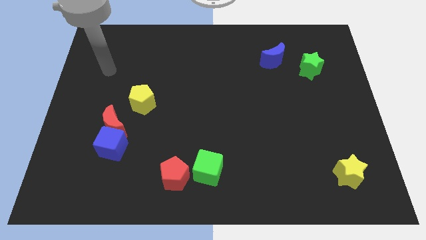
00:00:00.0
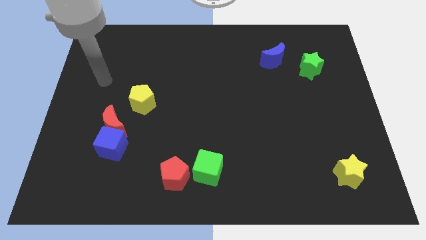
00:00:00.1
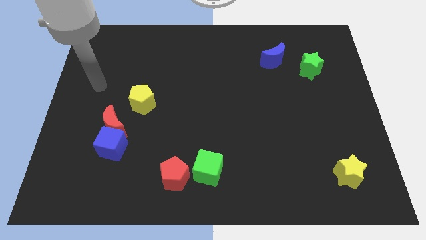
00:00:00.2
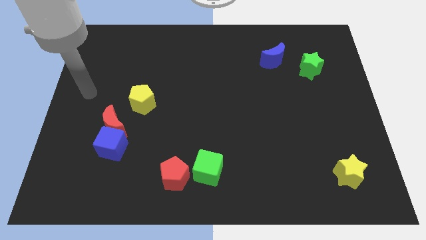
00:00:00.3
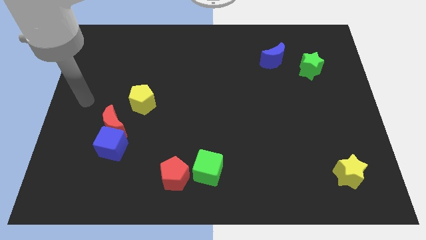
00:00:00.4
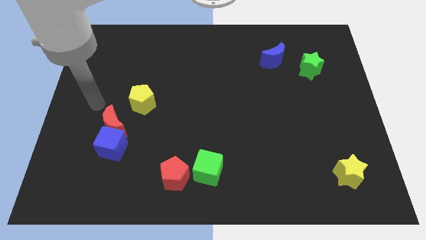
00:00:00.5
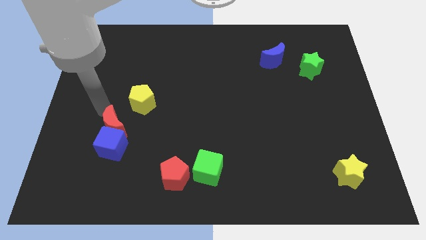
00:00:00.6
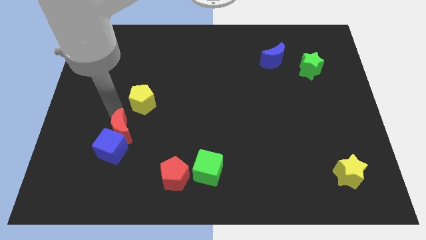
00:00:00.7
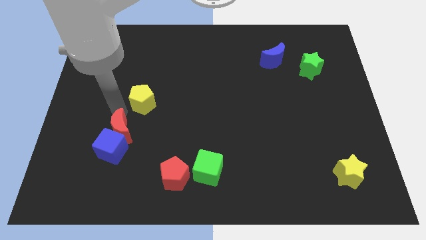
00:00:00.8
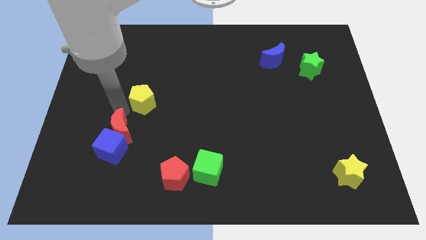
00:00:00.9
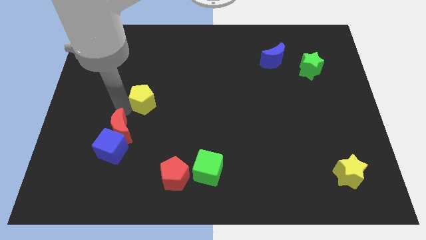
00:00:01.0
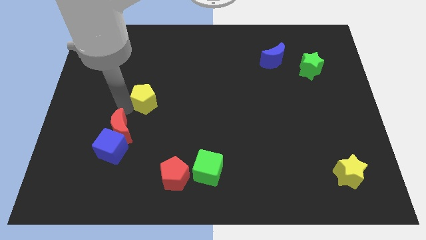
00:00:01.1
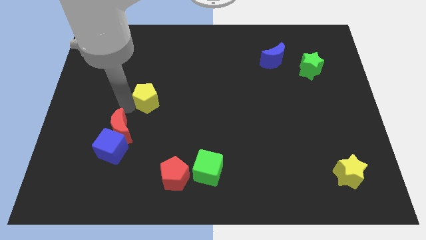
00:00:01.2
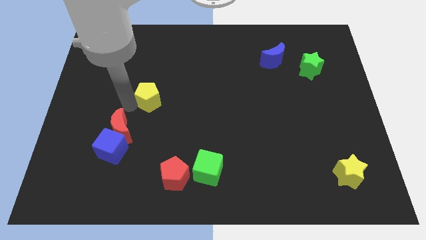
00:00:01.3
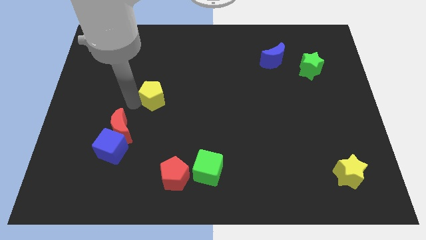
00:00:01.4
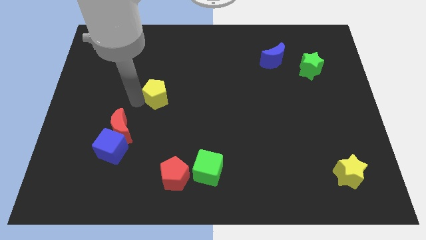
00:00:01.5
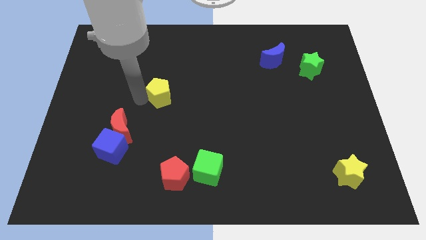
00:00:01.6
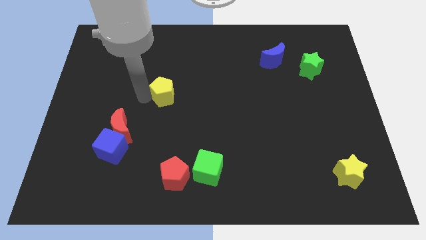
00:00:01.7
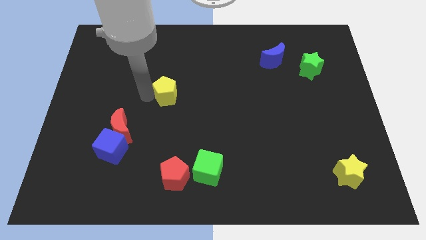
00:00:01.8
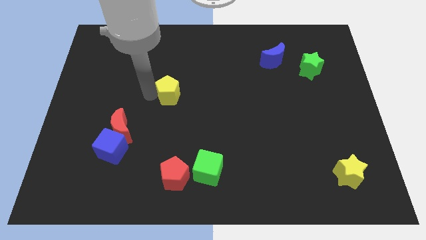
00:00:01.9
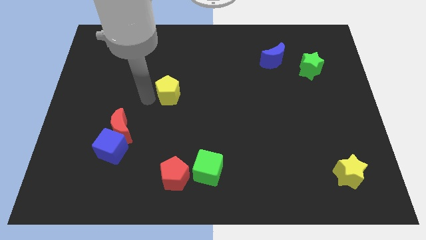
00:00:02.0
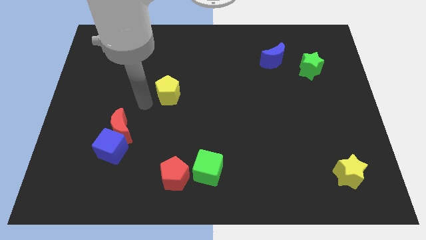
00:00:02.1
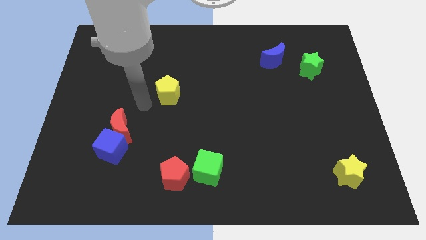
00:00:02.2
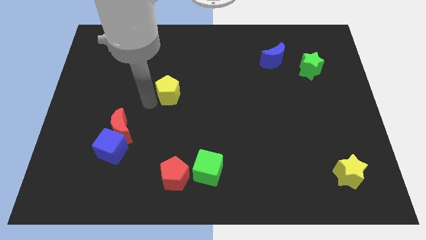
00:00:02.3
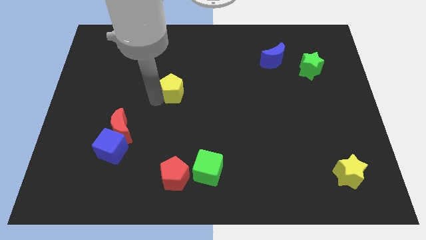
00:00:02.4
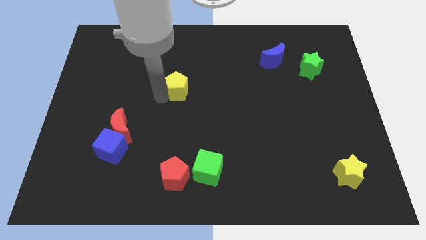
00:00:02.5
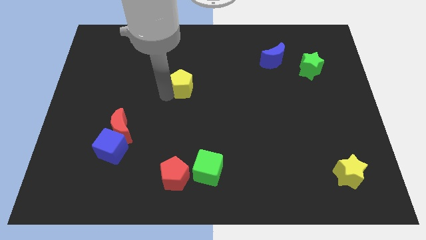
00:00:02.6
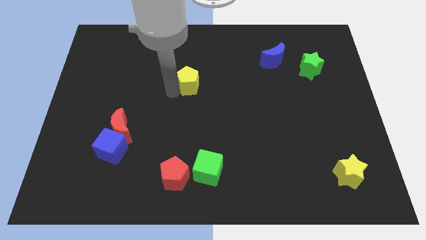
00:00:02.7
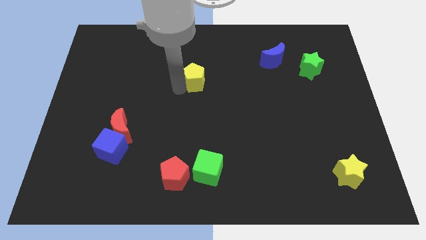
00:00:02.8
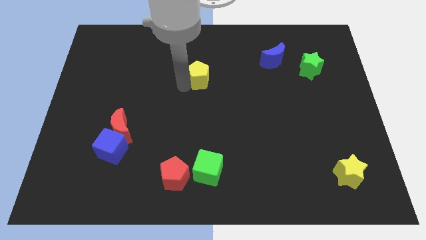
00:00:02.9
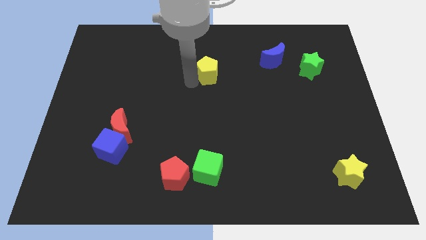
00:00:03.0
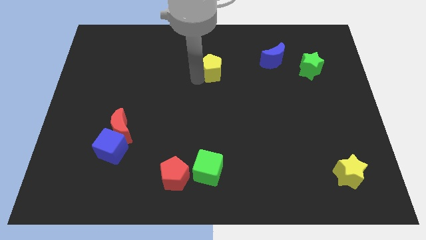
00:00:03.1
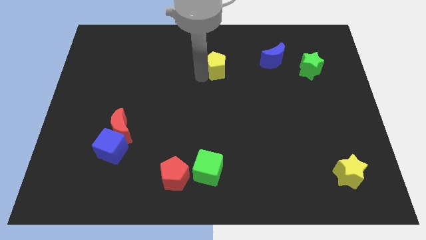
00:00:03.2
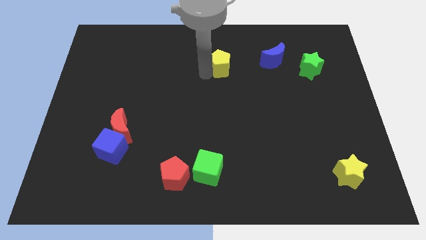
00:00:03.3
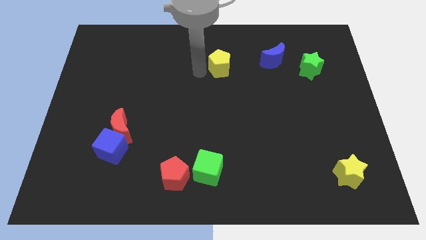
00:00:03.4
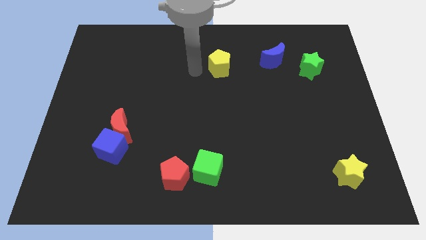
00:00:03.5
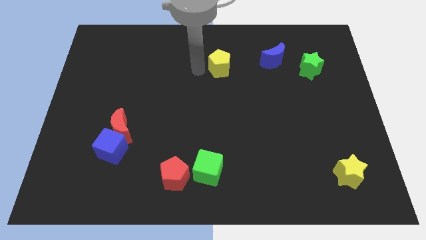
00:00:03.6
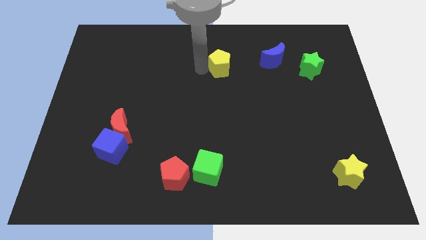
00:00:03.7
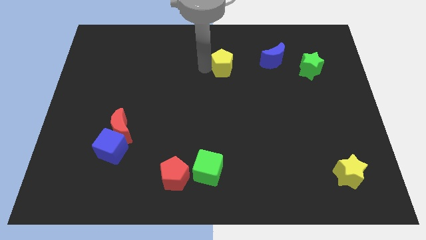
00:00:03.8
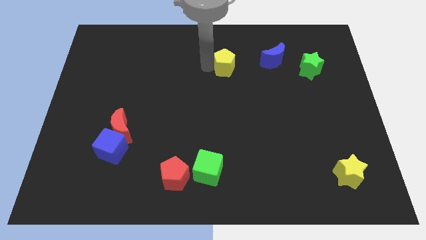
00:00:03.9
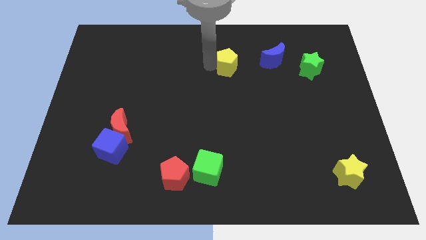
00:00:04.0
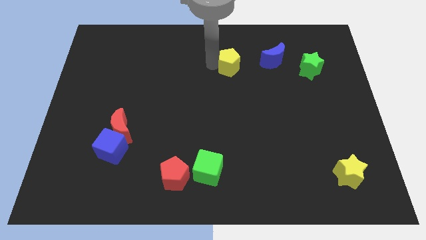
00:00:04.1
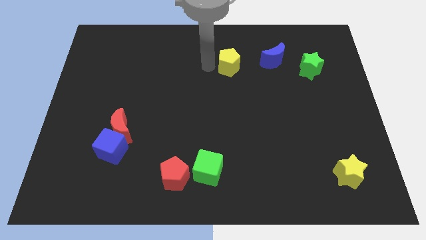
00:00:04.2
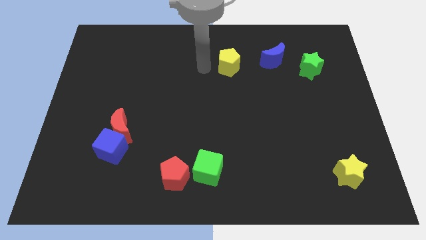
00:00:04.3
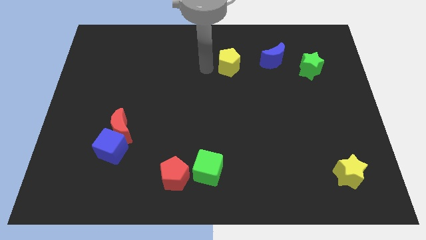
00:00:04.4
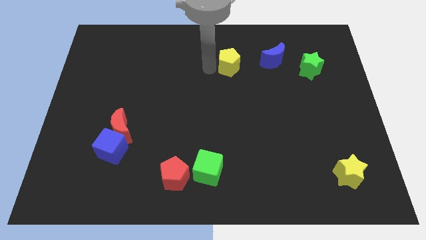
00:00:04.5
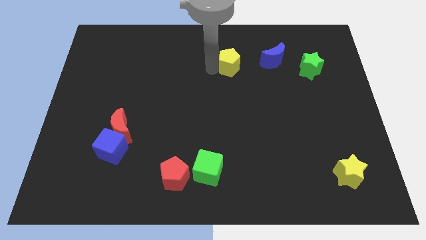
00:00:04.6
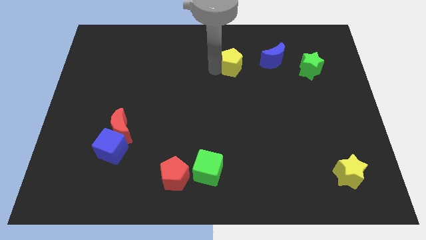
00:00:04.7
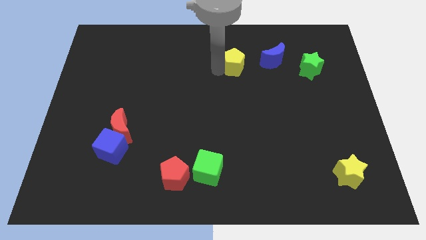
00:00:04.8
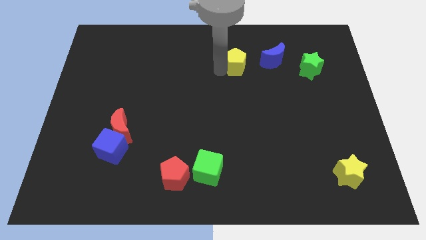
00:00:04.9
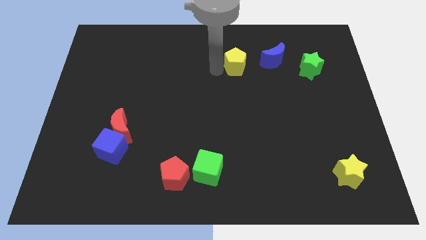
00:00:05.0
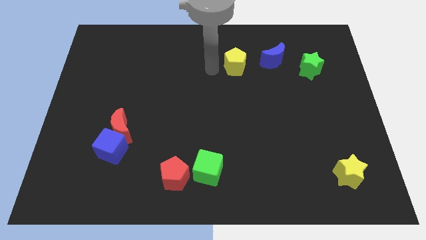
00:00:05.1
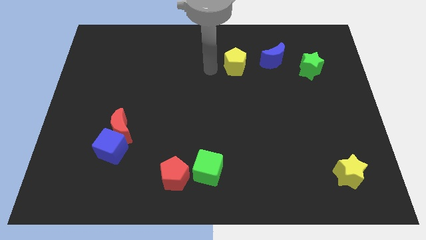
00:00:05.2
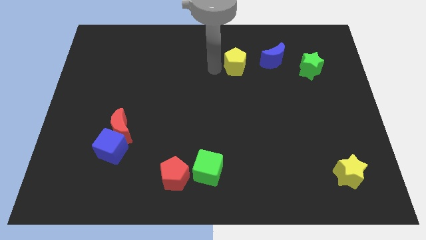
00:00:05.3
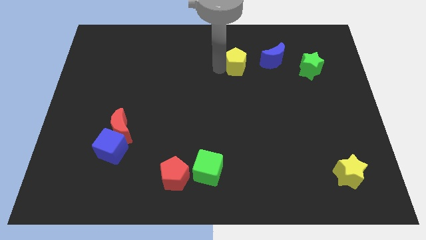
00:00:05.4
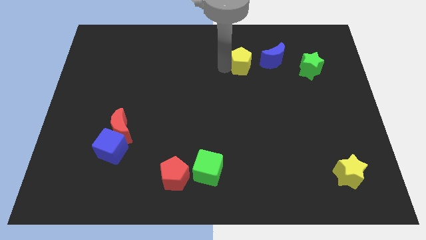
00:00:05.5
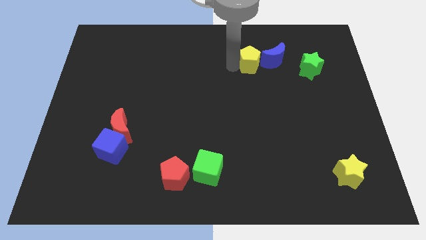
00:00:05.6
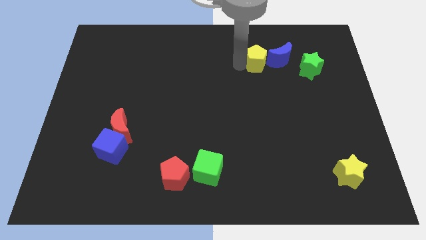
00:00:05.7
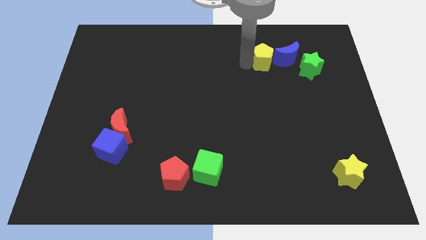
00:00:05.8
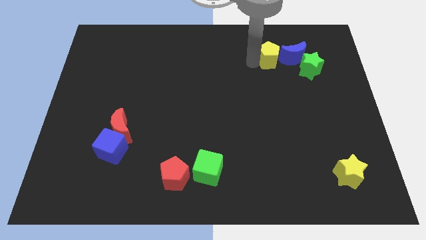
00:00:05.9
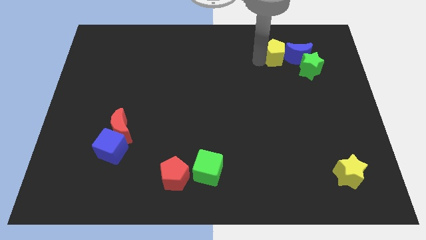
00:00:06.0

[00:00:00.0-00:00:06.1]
push the yellow pentagon towards the blue moon

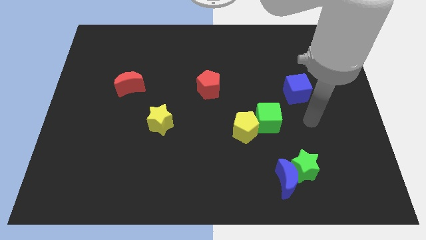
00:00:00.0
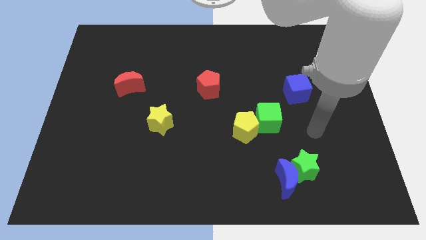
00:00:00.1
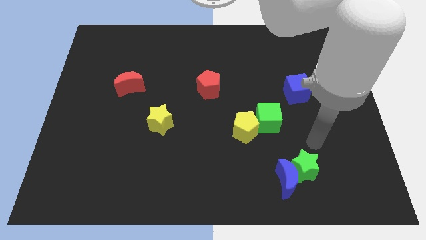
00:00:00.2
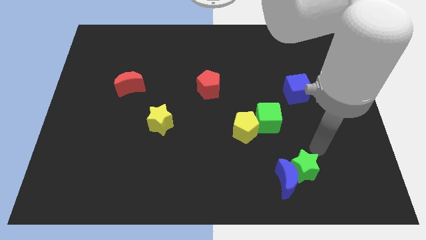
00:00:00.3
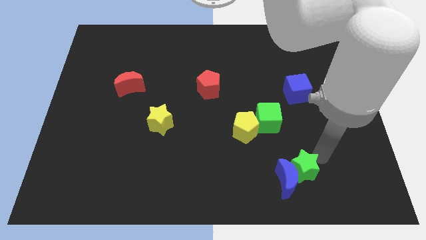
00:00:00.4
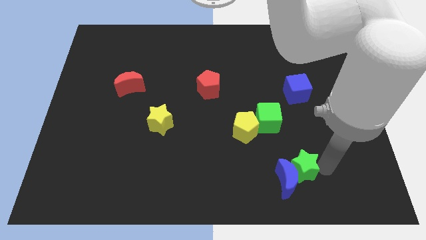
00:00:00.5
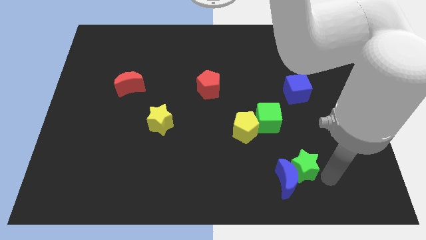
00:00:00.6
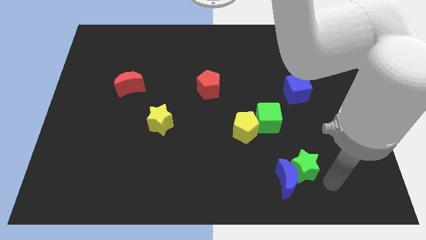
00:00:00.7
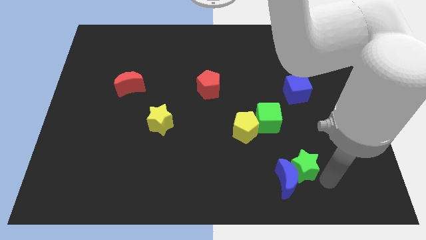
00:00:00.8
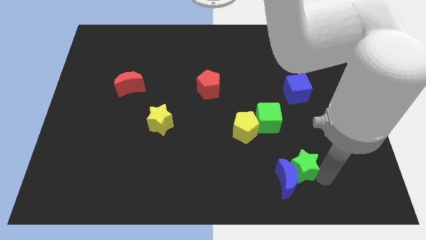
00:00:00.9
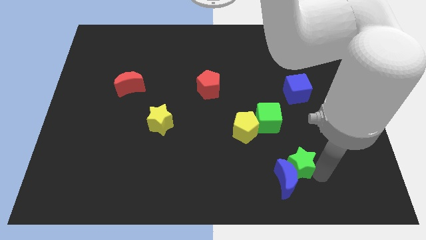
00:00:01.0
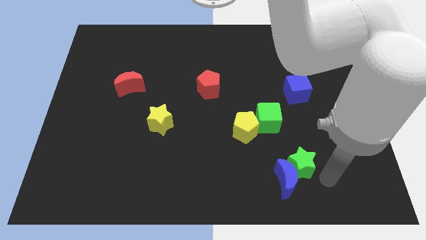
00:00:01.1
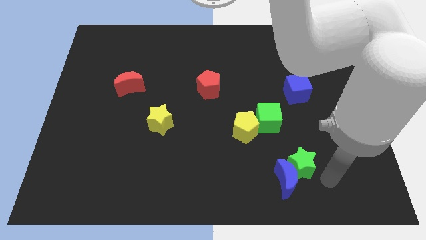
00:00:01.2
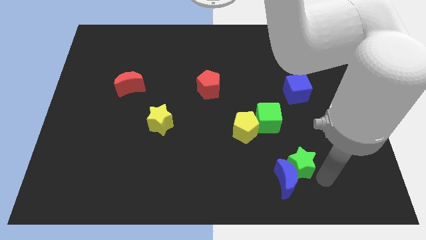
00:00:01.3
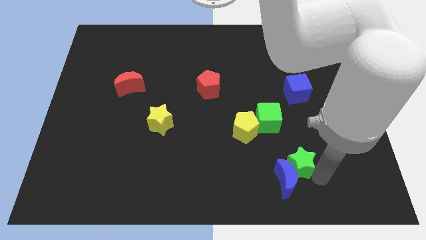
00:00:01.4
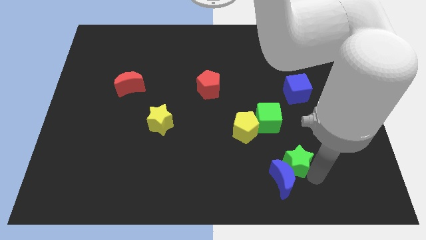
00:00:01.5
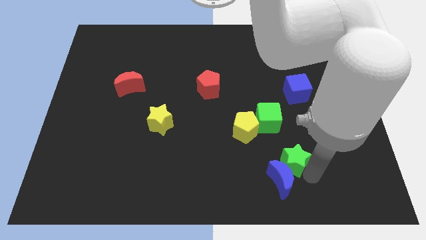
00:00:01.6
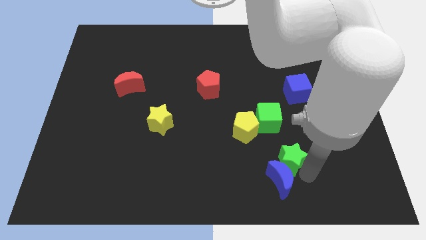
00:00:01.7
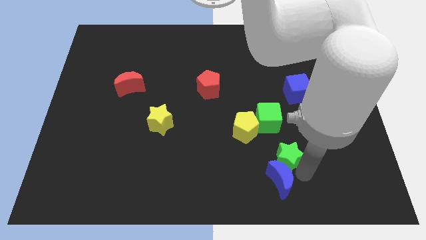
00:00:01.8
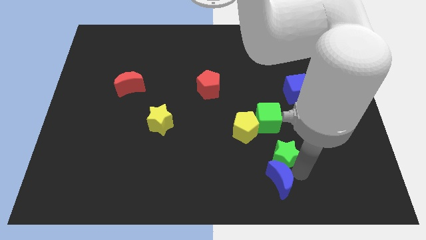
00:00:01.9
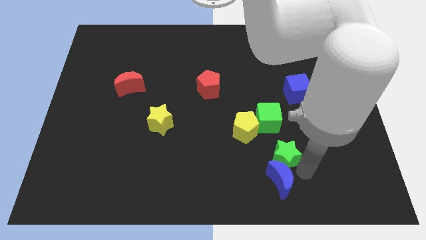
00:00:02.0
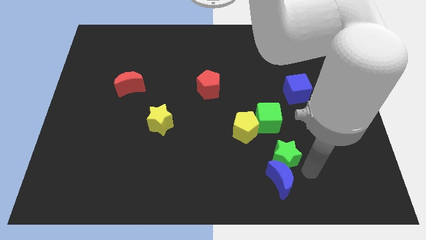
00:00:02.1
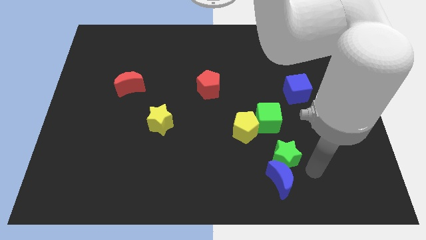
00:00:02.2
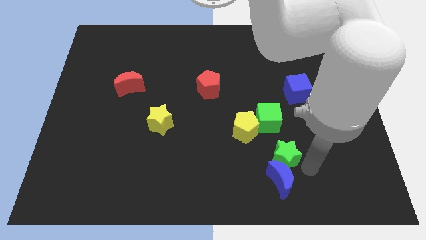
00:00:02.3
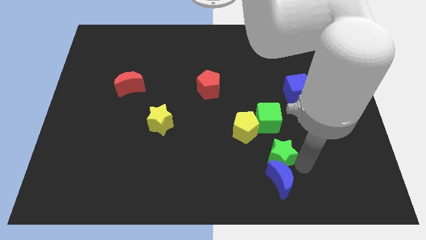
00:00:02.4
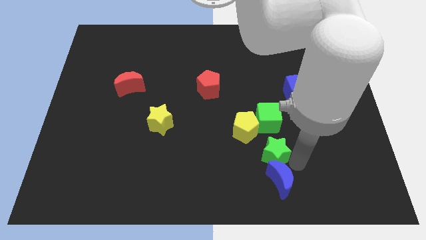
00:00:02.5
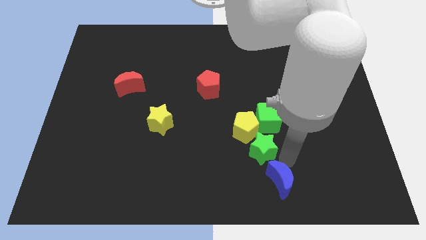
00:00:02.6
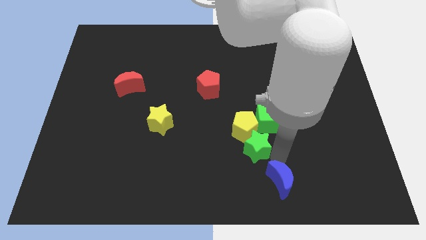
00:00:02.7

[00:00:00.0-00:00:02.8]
move the green star towards the yellow pentagon
